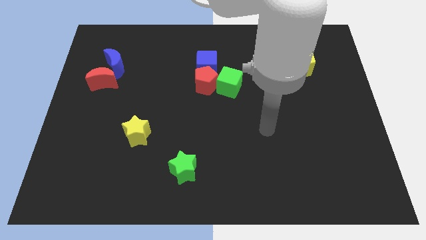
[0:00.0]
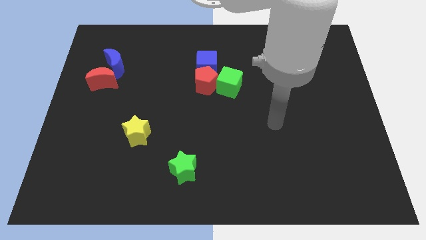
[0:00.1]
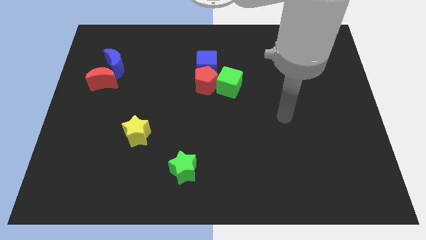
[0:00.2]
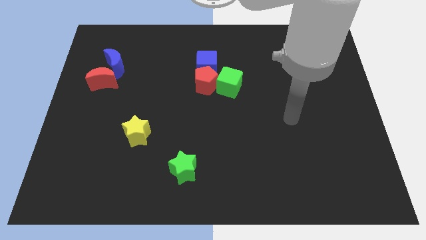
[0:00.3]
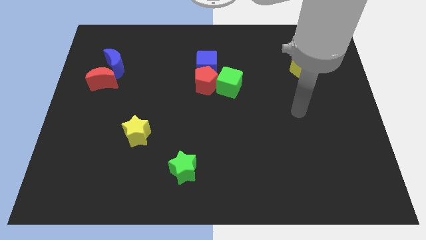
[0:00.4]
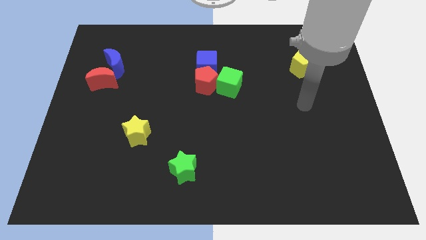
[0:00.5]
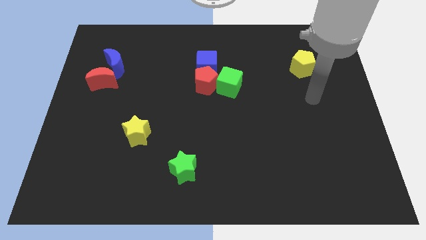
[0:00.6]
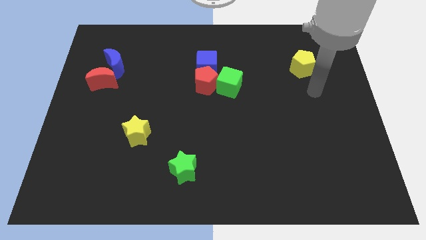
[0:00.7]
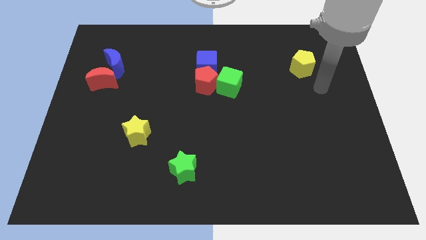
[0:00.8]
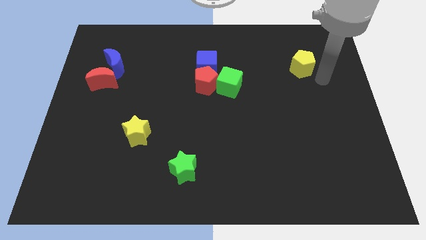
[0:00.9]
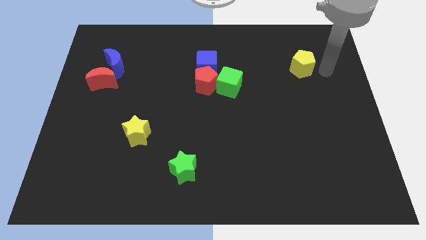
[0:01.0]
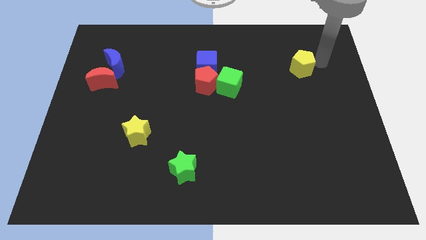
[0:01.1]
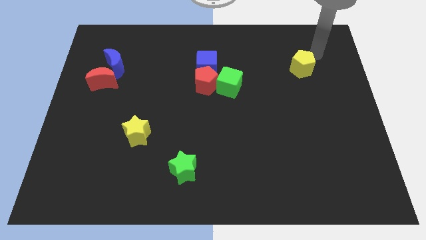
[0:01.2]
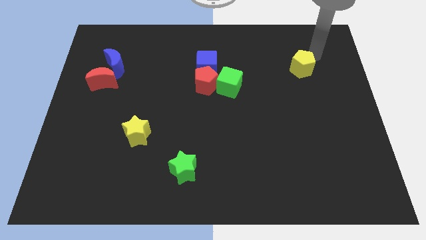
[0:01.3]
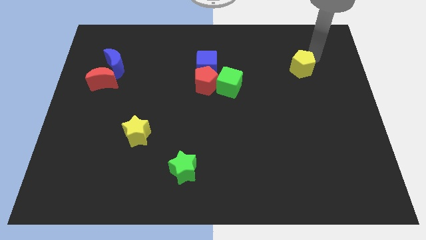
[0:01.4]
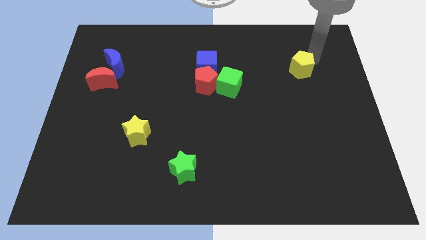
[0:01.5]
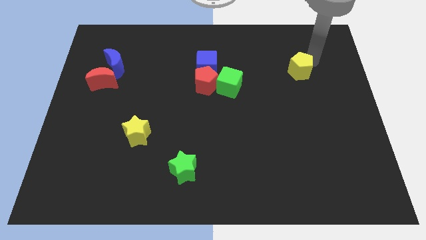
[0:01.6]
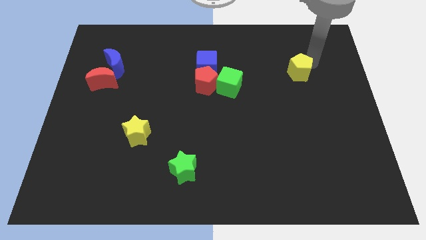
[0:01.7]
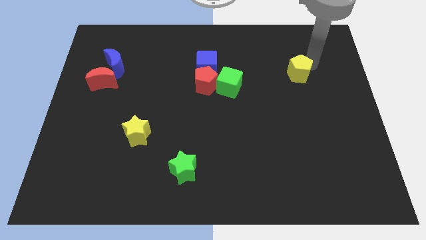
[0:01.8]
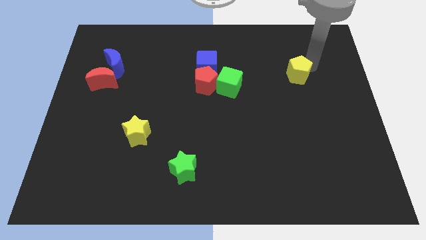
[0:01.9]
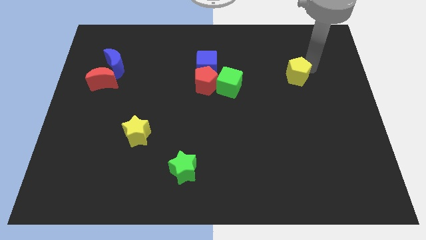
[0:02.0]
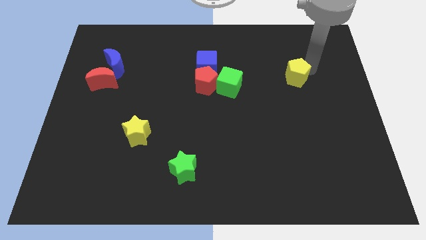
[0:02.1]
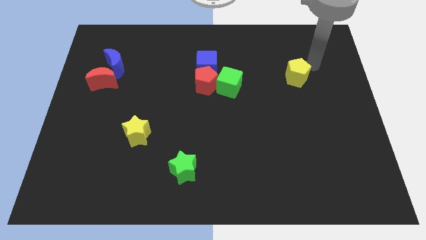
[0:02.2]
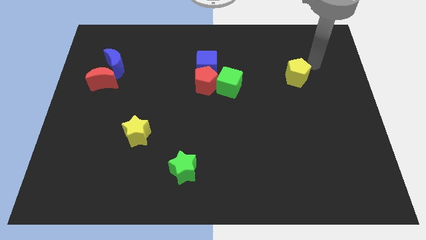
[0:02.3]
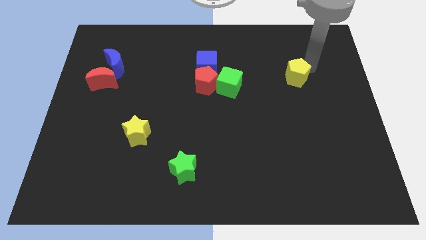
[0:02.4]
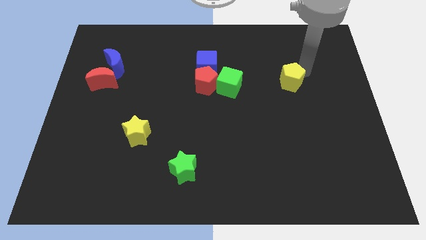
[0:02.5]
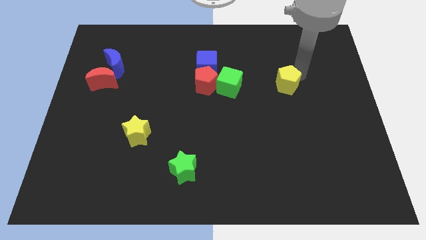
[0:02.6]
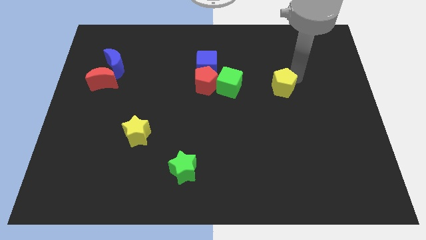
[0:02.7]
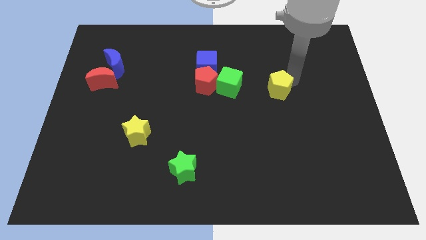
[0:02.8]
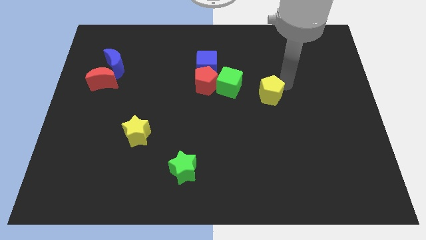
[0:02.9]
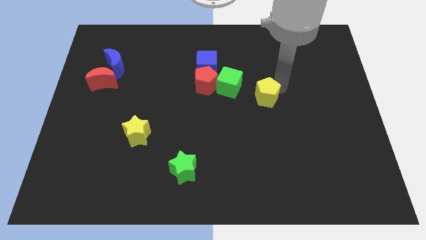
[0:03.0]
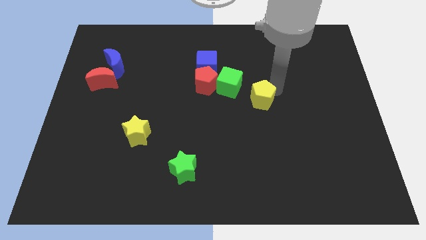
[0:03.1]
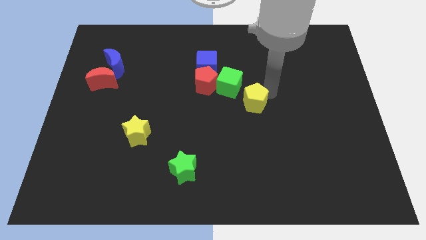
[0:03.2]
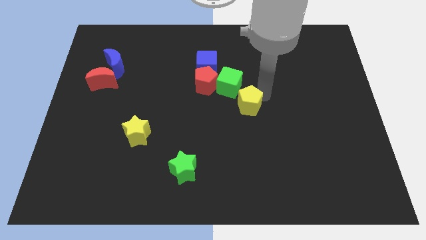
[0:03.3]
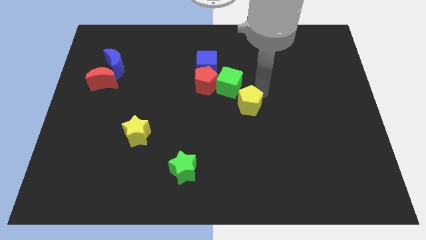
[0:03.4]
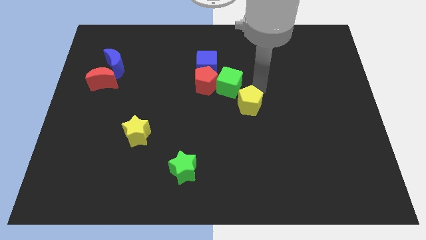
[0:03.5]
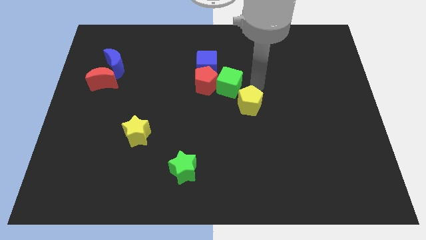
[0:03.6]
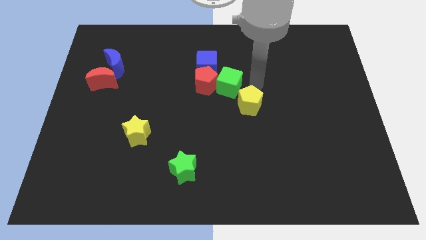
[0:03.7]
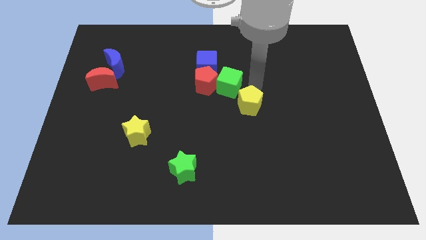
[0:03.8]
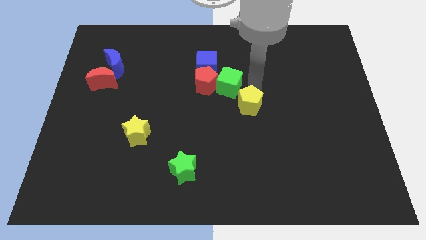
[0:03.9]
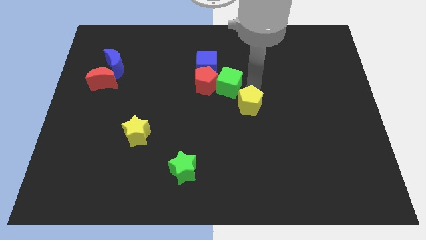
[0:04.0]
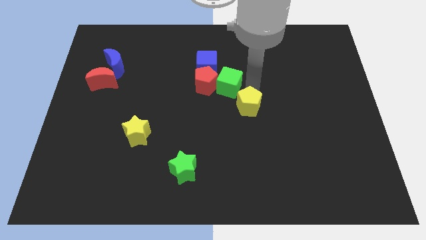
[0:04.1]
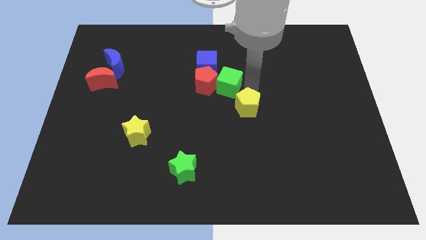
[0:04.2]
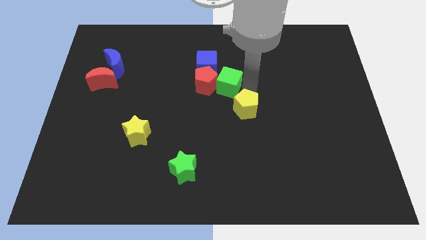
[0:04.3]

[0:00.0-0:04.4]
move the yellow pentagon down and to the left diagonally

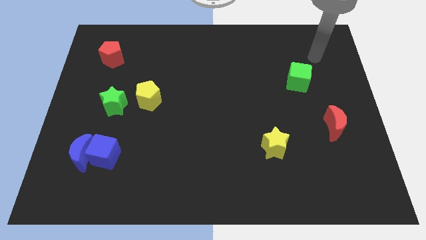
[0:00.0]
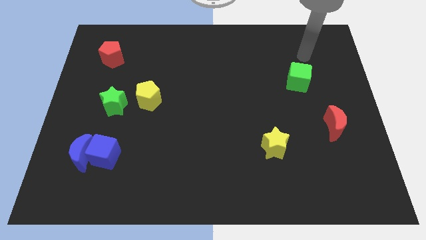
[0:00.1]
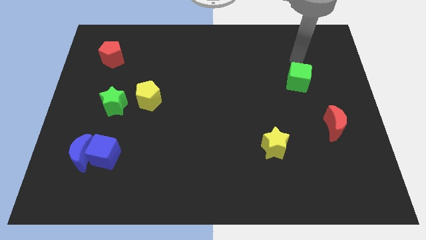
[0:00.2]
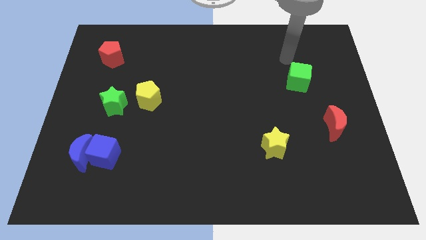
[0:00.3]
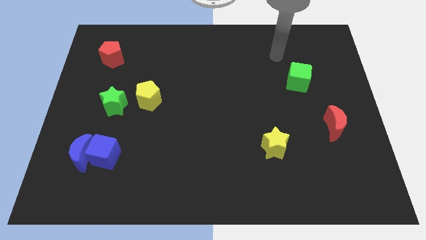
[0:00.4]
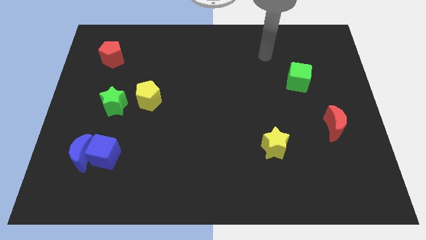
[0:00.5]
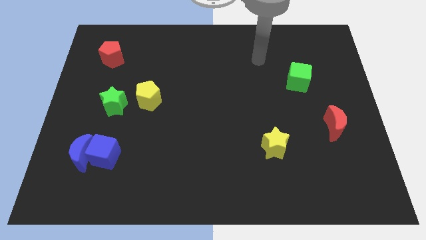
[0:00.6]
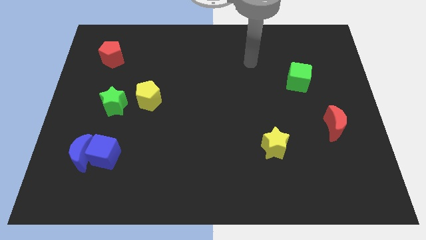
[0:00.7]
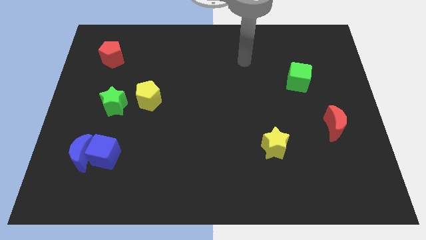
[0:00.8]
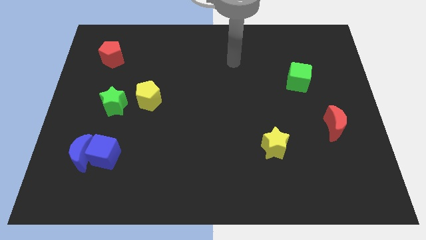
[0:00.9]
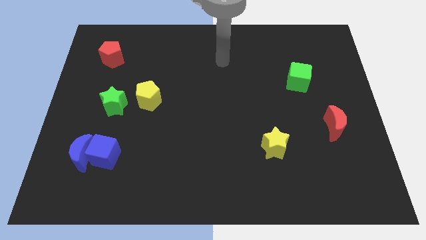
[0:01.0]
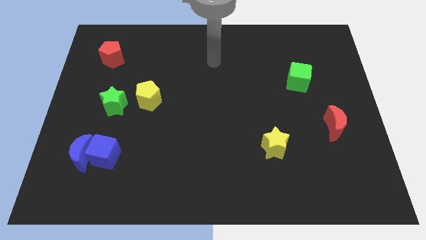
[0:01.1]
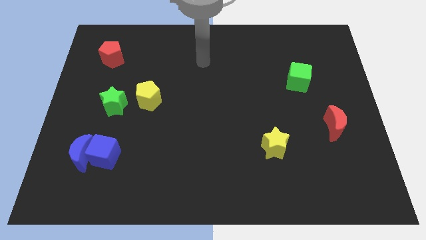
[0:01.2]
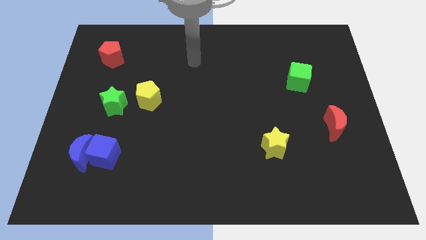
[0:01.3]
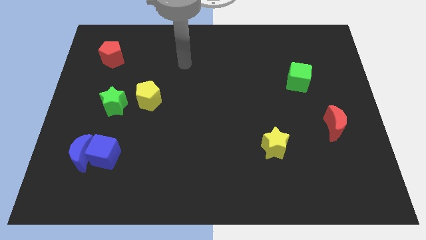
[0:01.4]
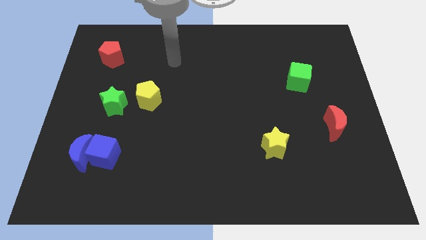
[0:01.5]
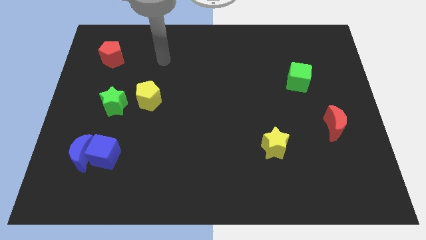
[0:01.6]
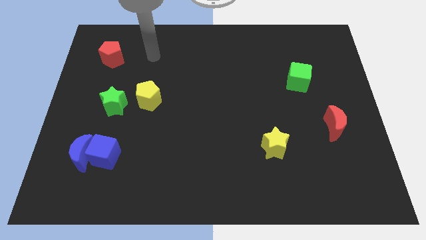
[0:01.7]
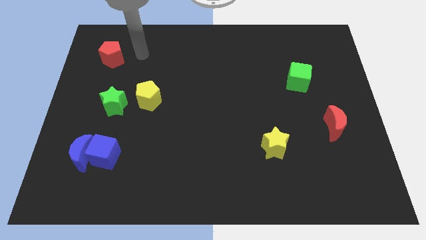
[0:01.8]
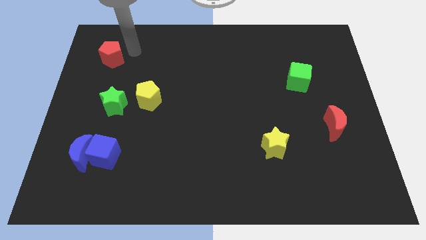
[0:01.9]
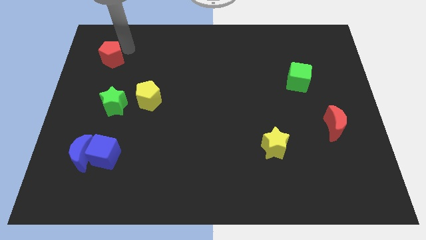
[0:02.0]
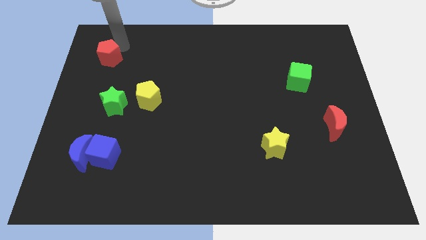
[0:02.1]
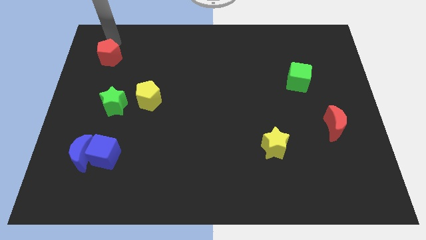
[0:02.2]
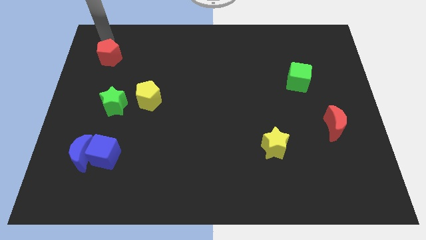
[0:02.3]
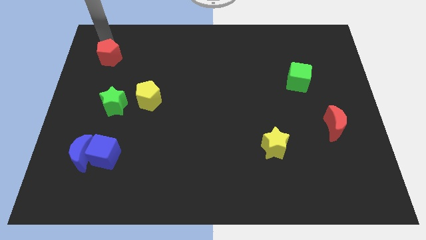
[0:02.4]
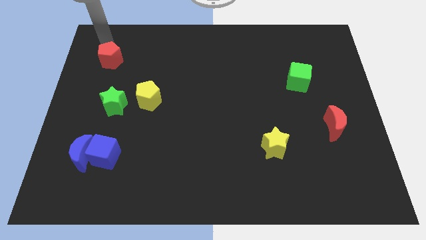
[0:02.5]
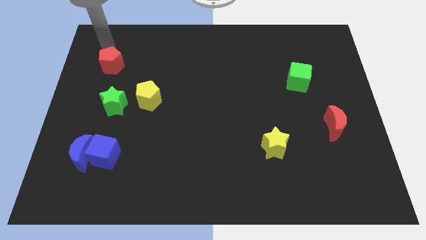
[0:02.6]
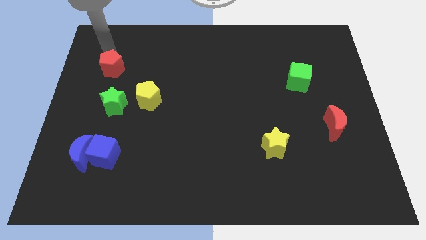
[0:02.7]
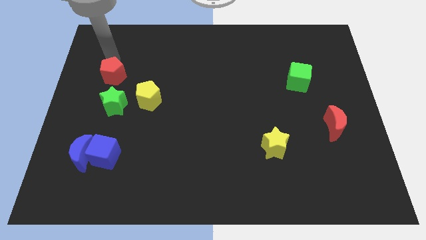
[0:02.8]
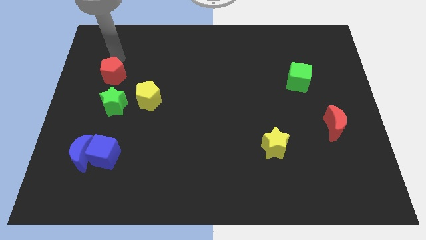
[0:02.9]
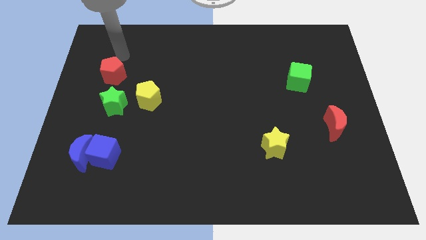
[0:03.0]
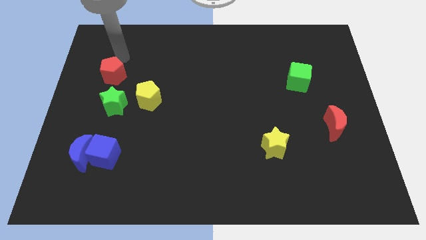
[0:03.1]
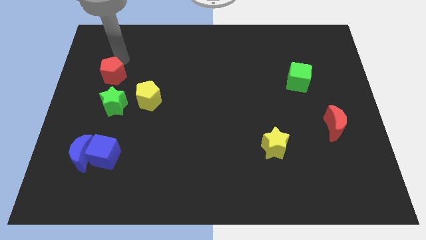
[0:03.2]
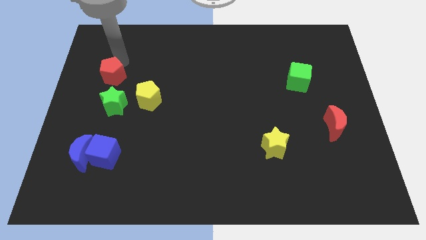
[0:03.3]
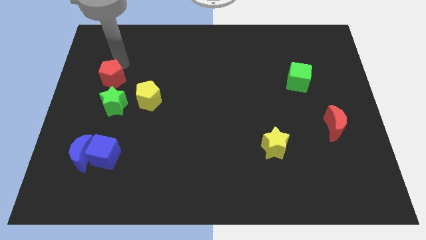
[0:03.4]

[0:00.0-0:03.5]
push the red pentagon slightly downwards

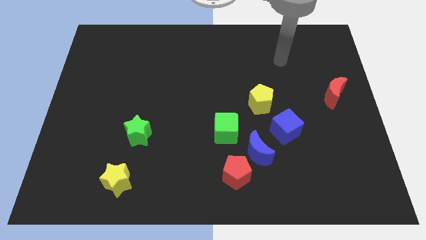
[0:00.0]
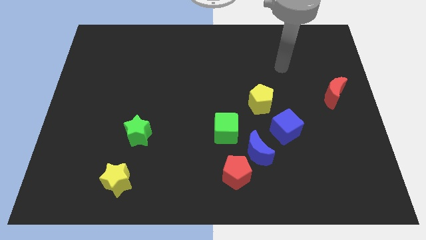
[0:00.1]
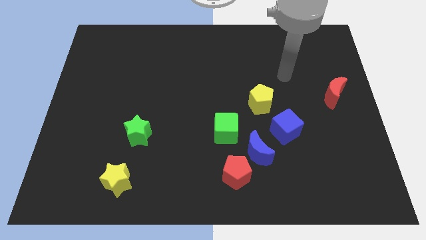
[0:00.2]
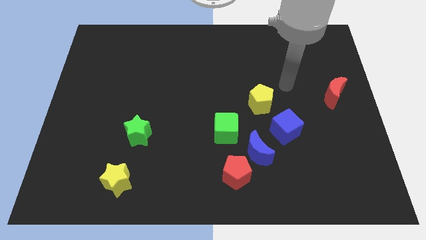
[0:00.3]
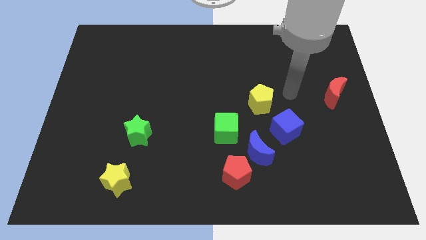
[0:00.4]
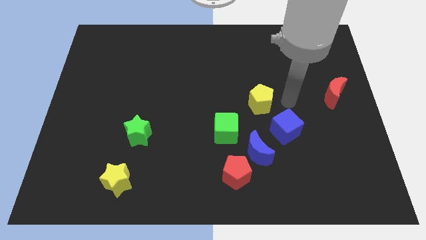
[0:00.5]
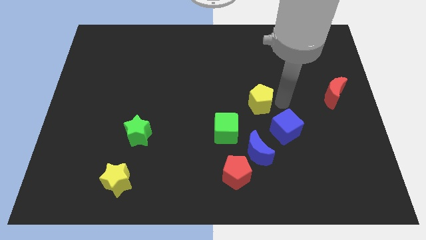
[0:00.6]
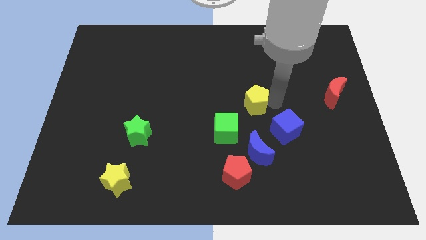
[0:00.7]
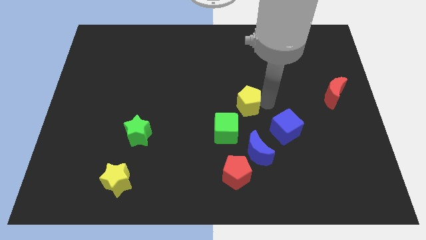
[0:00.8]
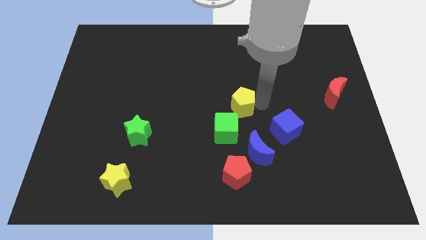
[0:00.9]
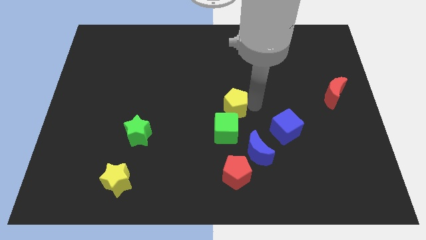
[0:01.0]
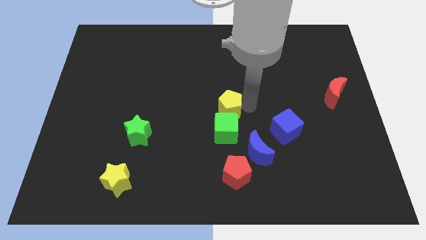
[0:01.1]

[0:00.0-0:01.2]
move the yellow pentagon slightly to the left
